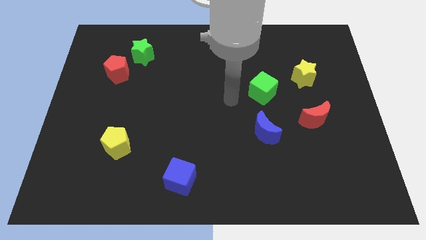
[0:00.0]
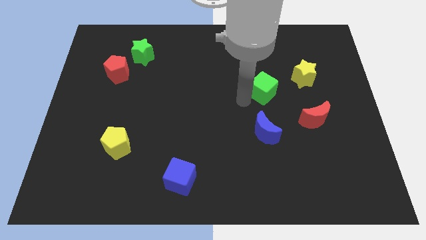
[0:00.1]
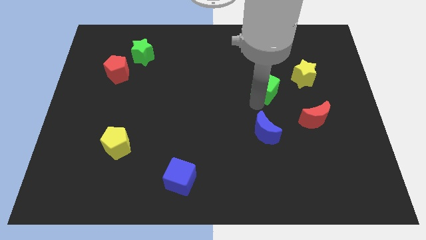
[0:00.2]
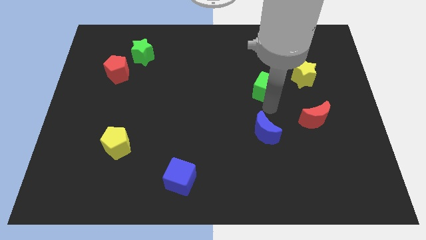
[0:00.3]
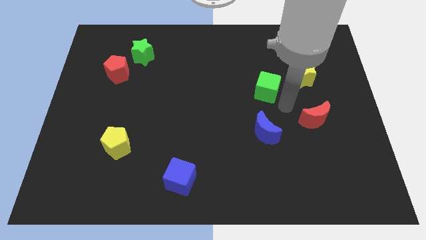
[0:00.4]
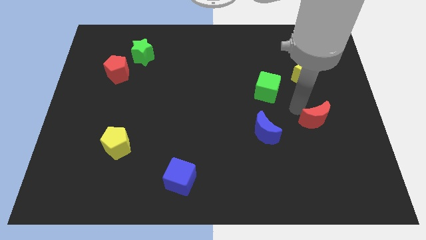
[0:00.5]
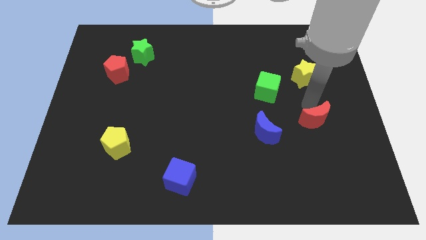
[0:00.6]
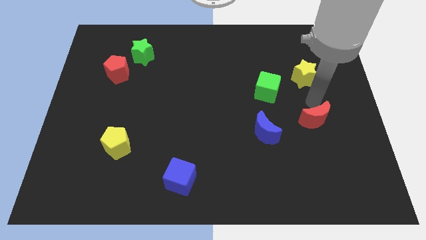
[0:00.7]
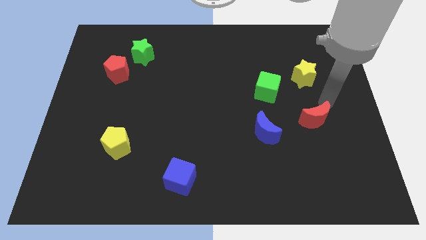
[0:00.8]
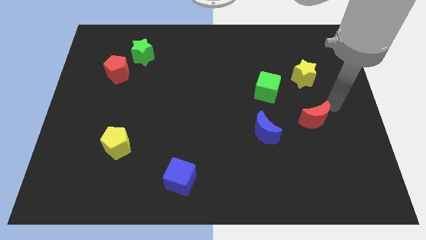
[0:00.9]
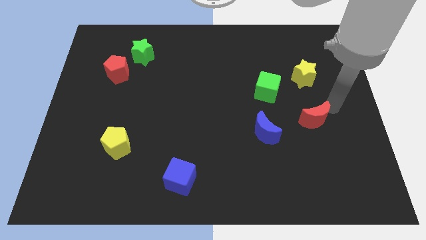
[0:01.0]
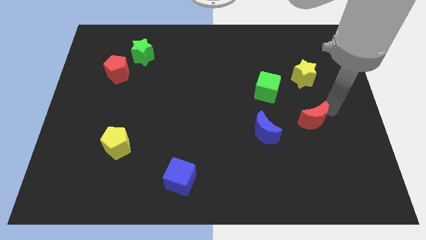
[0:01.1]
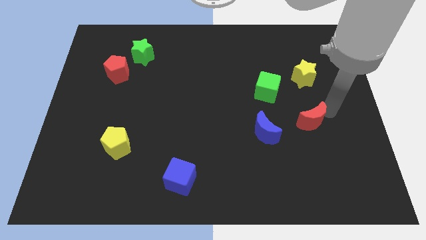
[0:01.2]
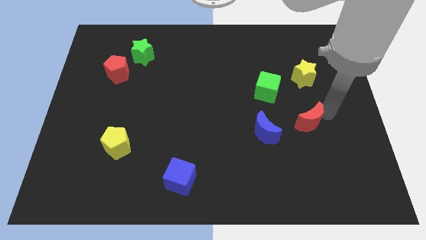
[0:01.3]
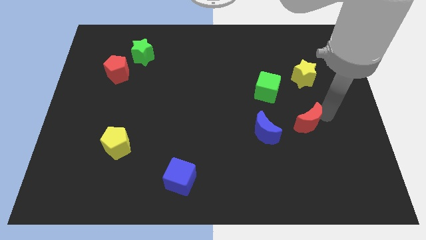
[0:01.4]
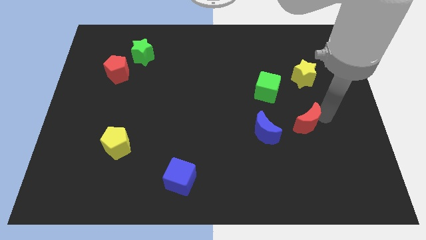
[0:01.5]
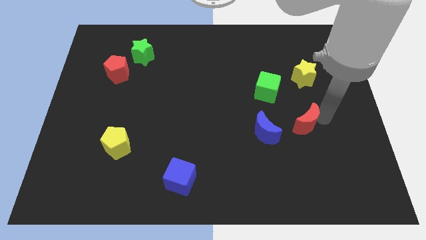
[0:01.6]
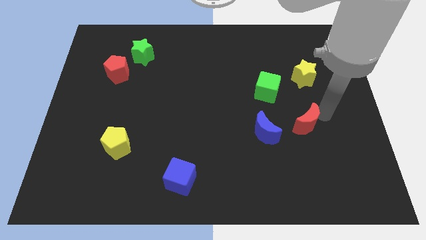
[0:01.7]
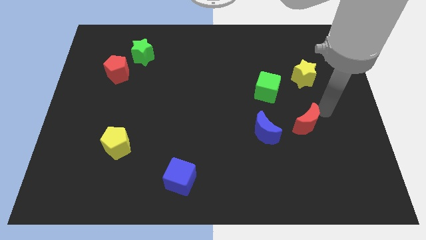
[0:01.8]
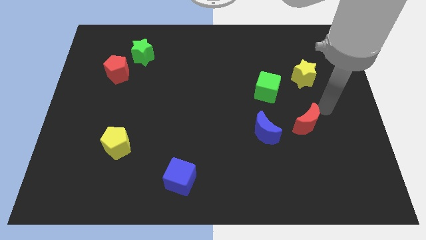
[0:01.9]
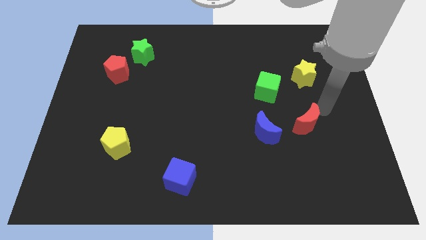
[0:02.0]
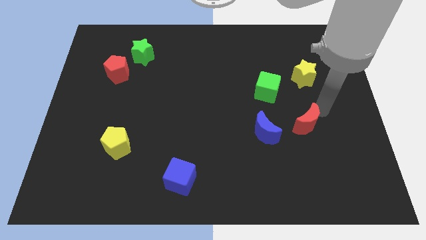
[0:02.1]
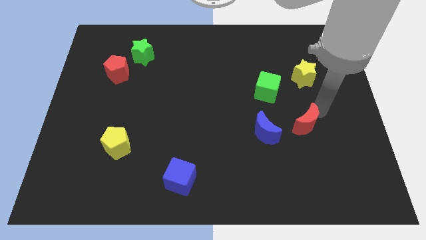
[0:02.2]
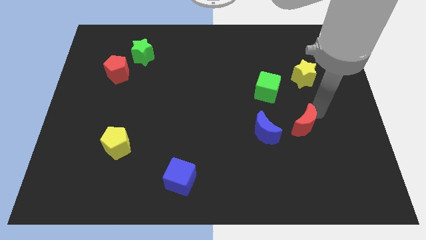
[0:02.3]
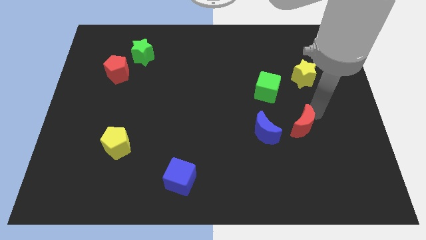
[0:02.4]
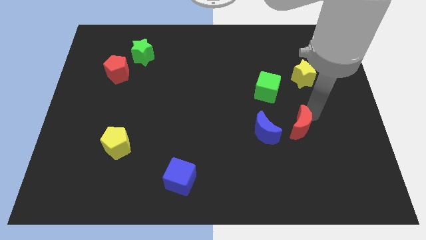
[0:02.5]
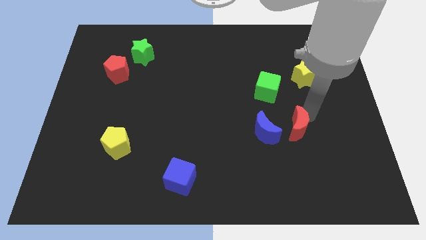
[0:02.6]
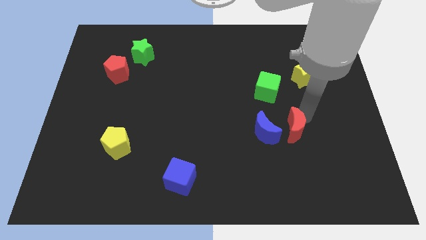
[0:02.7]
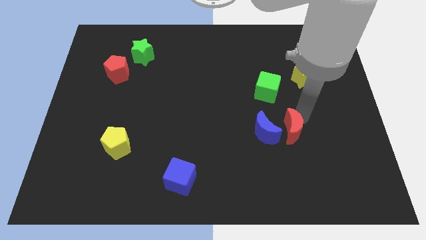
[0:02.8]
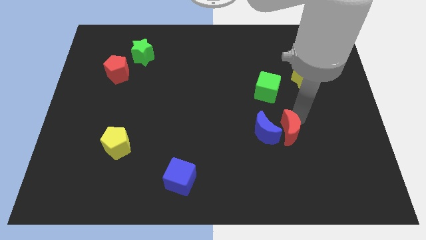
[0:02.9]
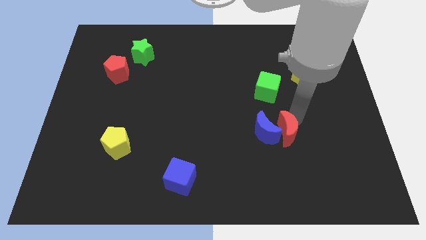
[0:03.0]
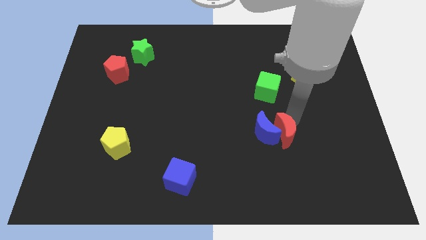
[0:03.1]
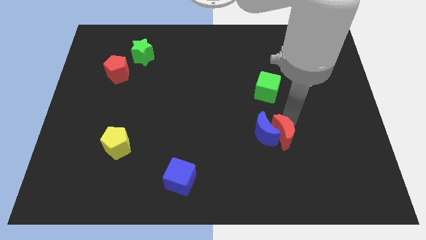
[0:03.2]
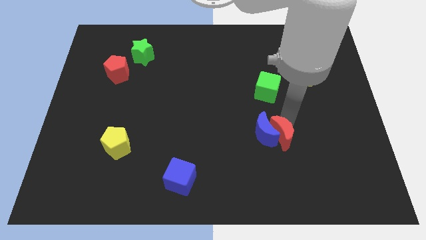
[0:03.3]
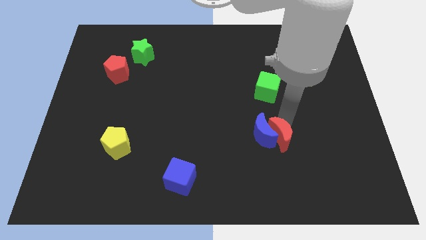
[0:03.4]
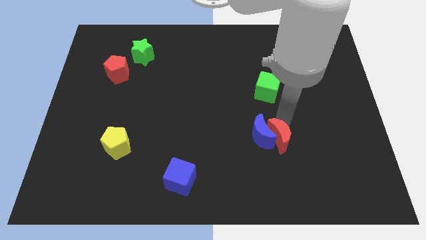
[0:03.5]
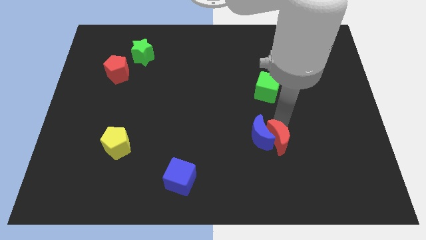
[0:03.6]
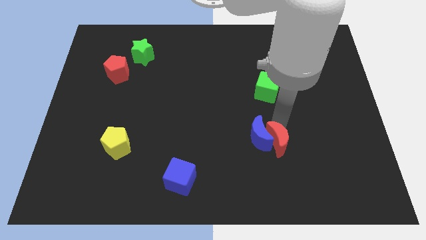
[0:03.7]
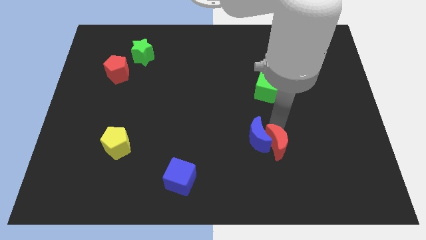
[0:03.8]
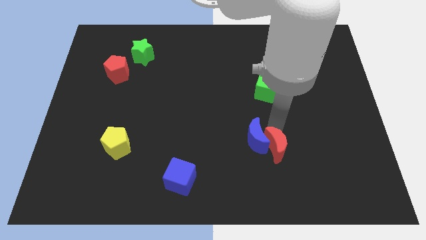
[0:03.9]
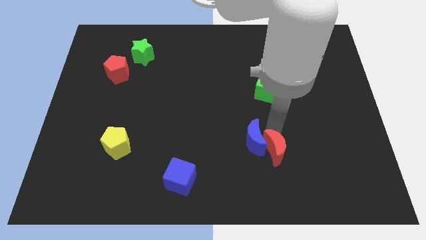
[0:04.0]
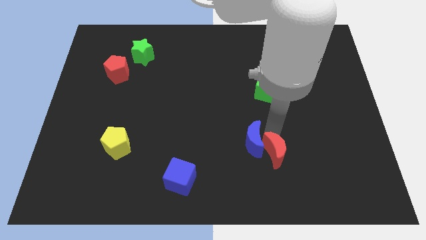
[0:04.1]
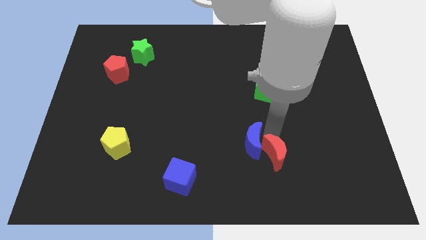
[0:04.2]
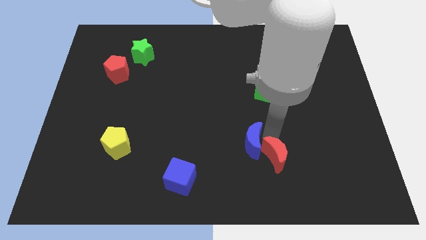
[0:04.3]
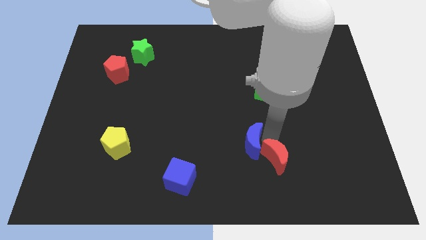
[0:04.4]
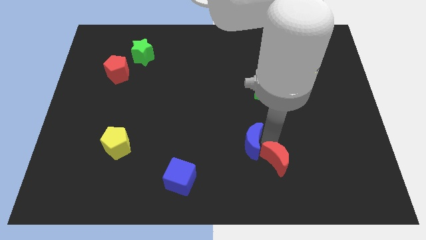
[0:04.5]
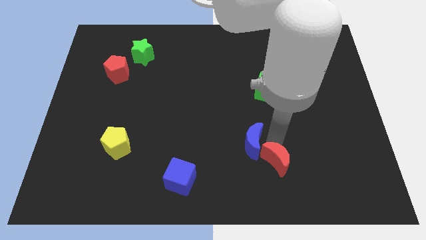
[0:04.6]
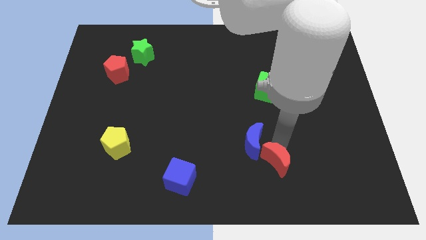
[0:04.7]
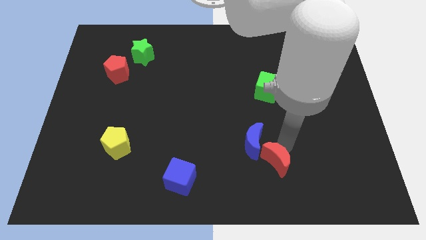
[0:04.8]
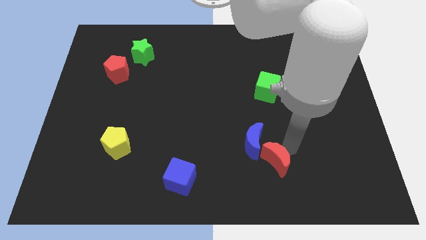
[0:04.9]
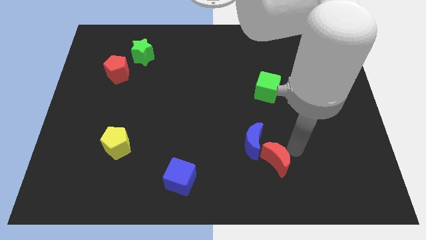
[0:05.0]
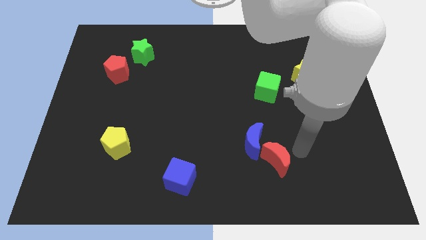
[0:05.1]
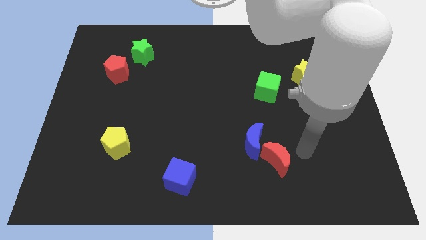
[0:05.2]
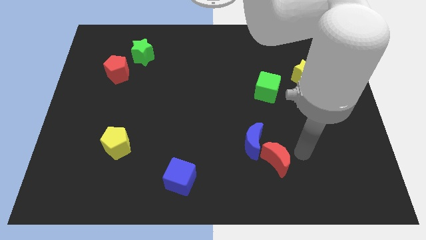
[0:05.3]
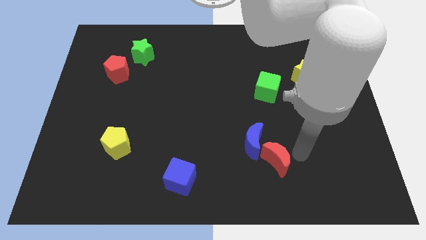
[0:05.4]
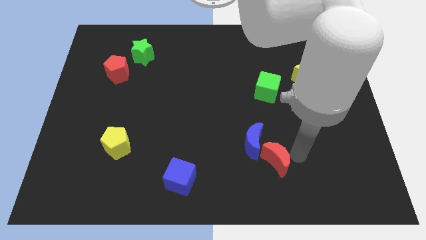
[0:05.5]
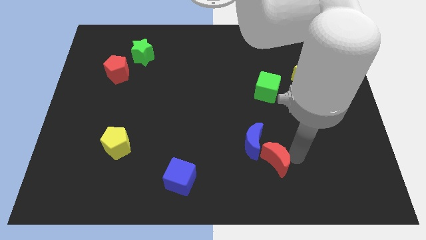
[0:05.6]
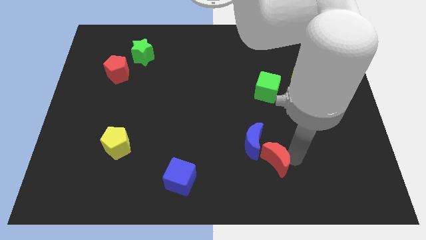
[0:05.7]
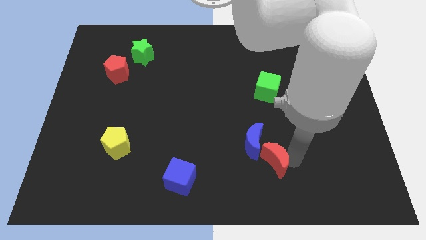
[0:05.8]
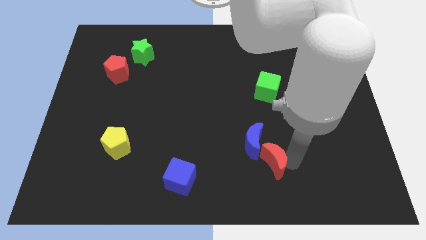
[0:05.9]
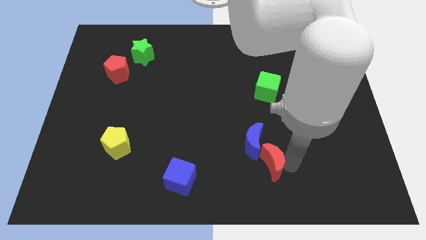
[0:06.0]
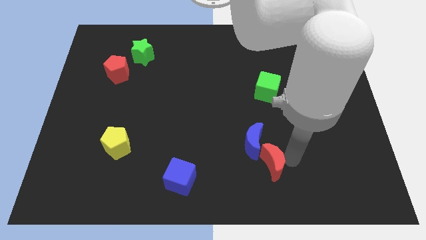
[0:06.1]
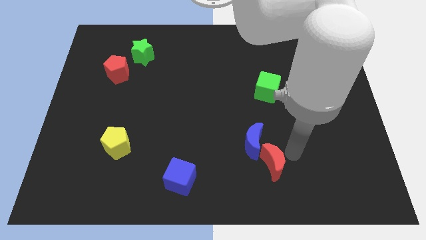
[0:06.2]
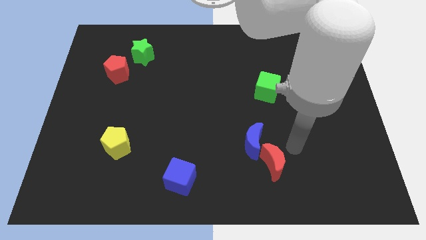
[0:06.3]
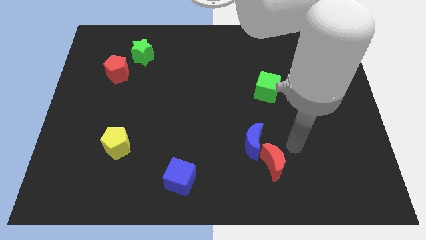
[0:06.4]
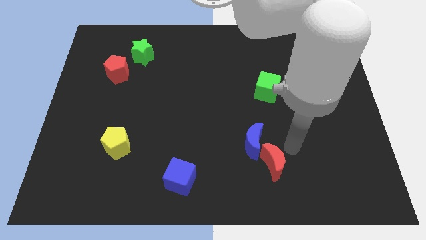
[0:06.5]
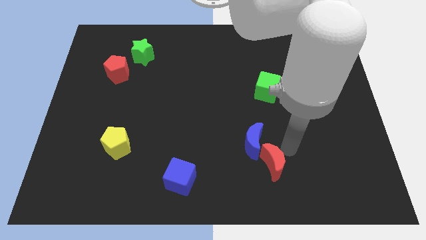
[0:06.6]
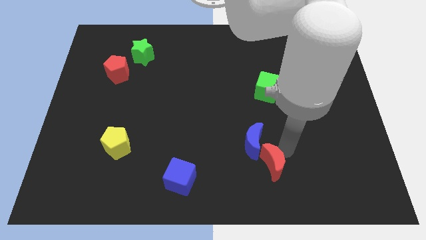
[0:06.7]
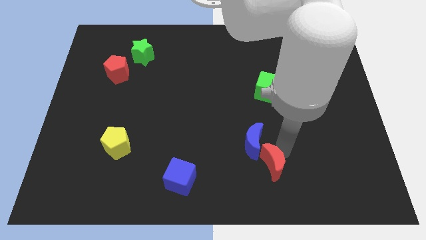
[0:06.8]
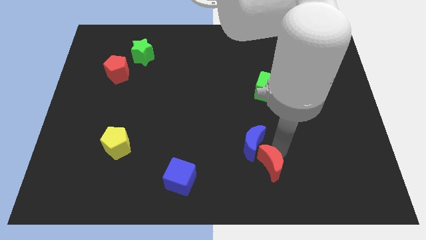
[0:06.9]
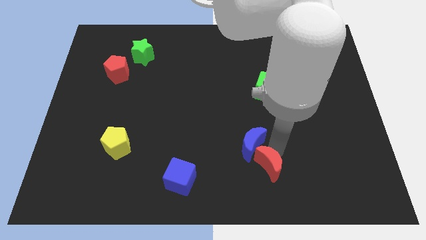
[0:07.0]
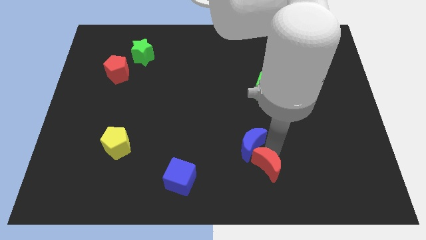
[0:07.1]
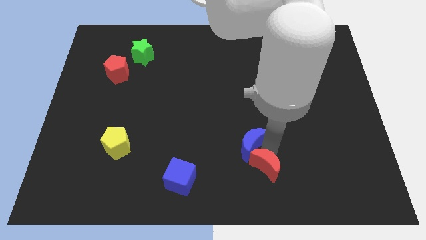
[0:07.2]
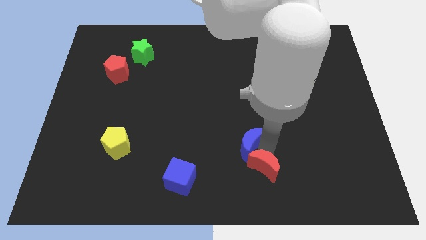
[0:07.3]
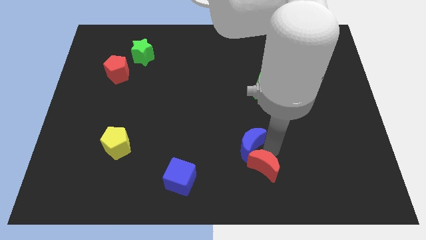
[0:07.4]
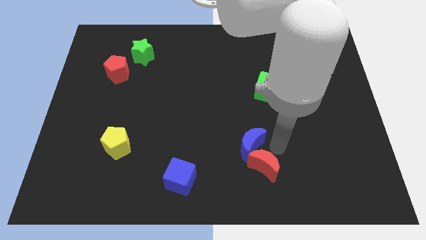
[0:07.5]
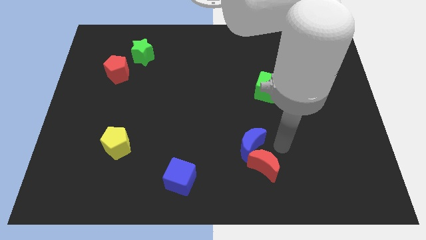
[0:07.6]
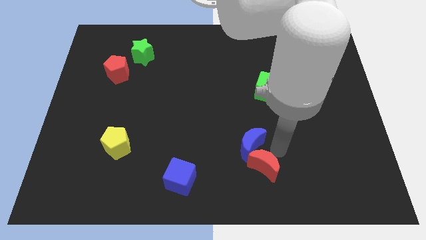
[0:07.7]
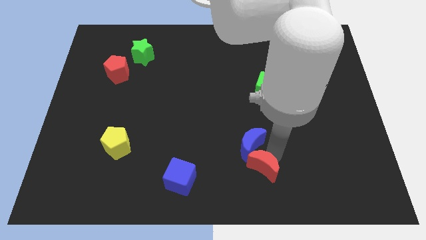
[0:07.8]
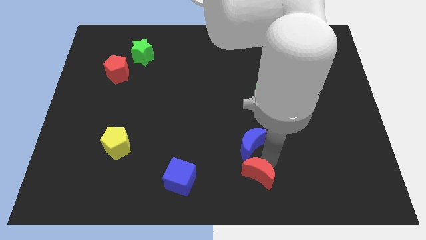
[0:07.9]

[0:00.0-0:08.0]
put the red moon to the bottom
